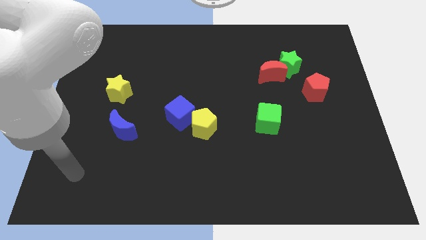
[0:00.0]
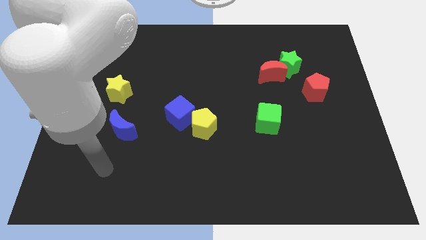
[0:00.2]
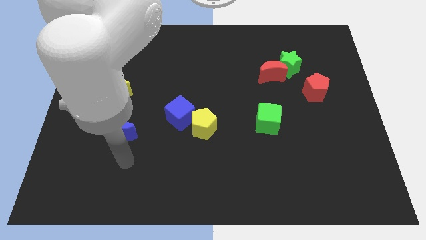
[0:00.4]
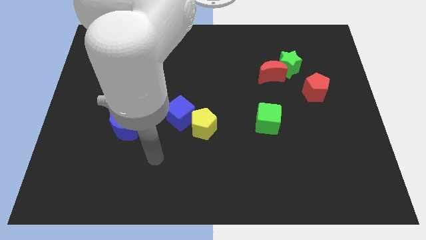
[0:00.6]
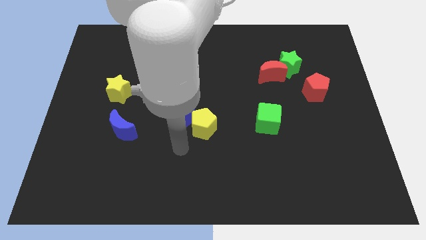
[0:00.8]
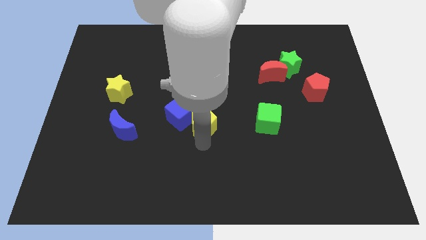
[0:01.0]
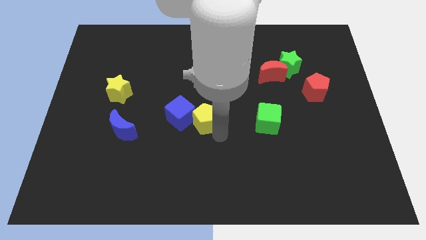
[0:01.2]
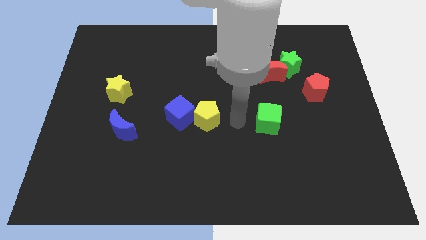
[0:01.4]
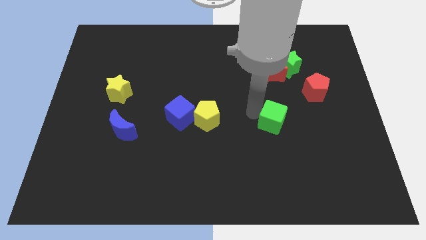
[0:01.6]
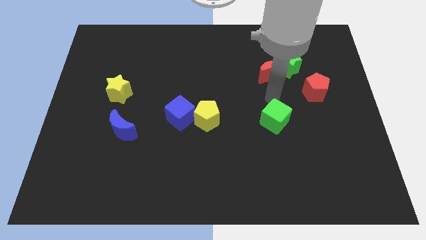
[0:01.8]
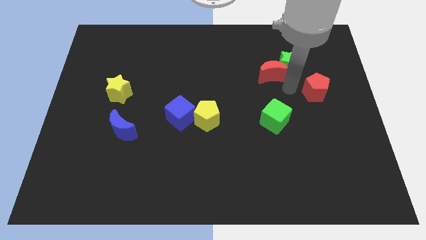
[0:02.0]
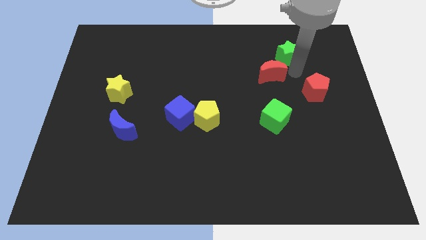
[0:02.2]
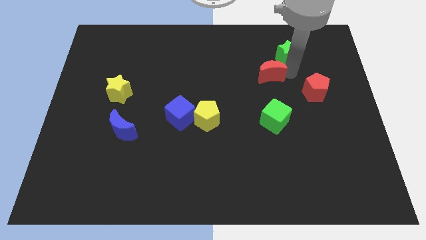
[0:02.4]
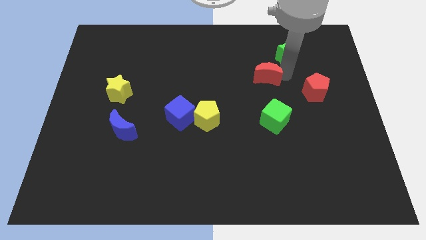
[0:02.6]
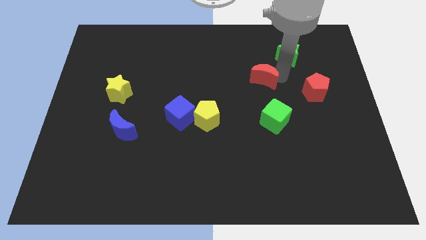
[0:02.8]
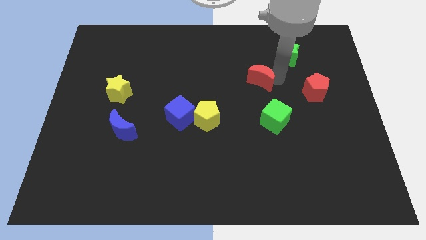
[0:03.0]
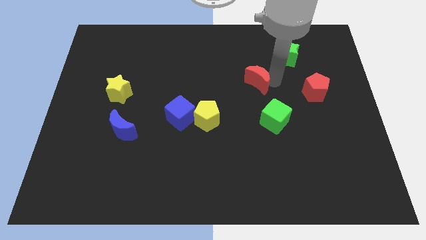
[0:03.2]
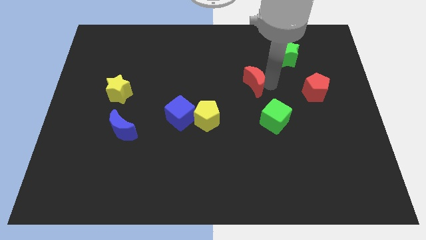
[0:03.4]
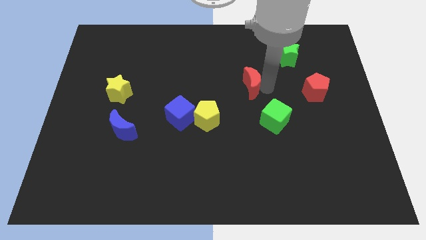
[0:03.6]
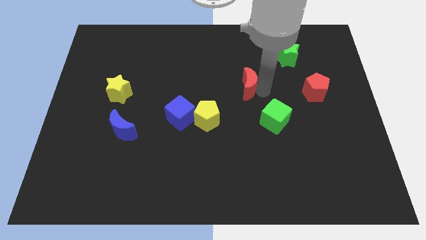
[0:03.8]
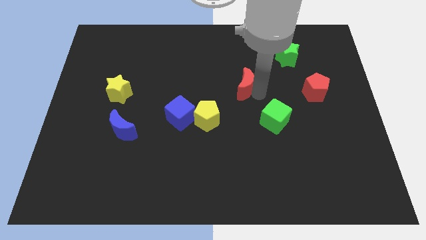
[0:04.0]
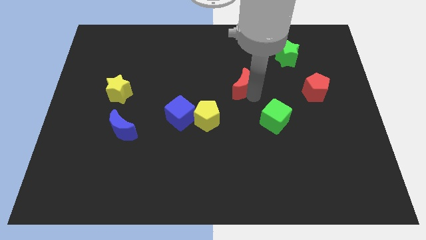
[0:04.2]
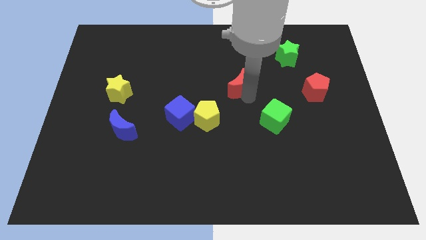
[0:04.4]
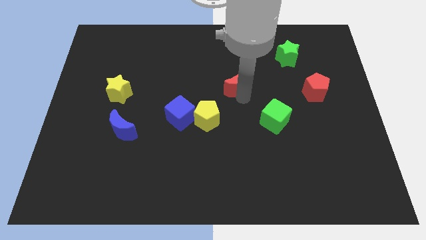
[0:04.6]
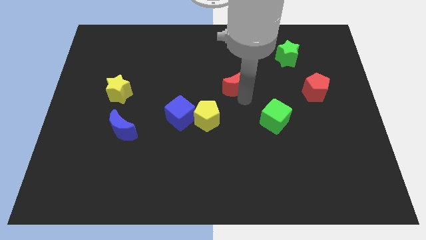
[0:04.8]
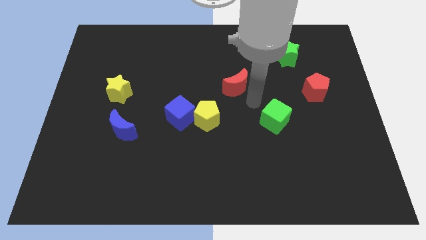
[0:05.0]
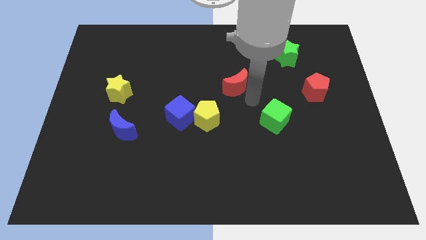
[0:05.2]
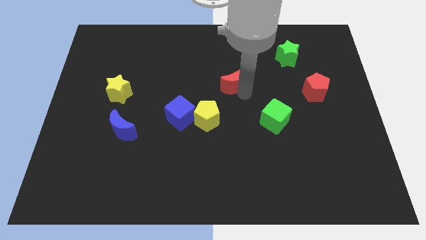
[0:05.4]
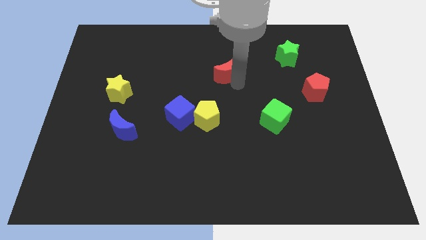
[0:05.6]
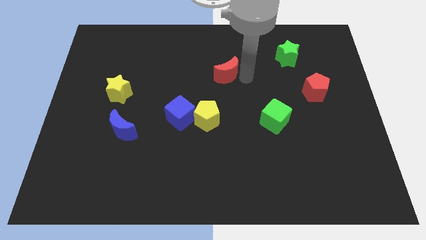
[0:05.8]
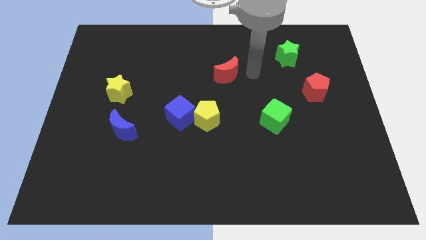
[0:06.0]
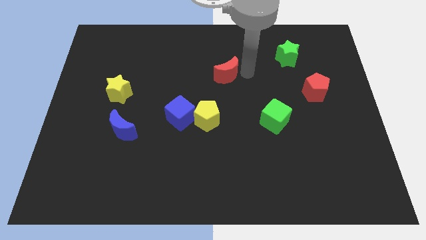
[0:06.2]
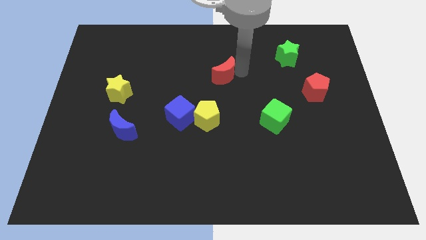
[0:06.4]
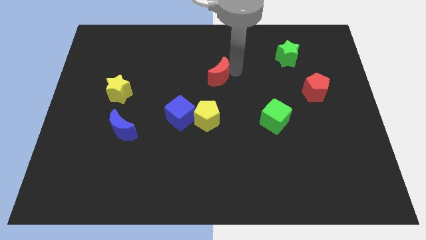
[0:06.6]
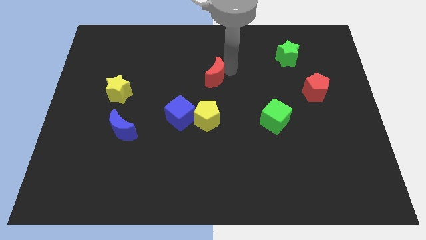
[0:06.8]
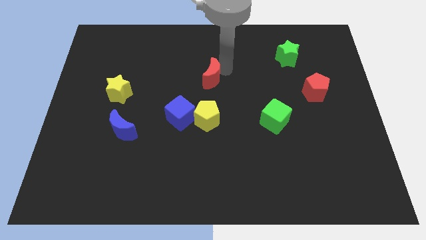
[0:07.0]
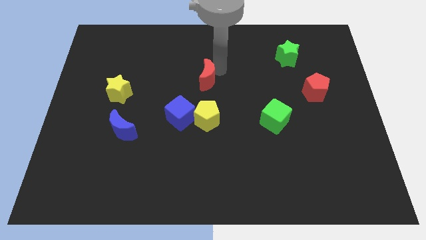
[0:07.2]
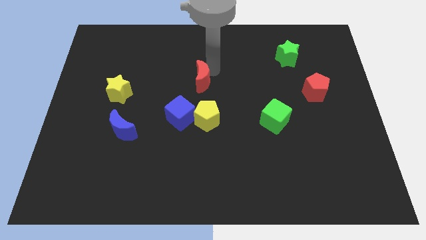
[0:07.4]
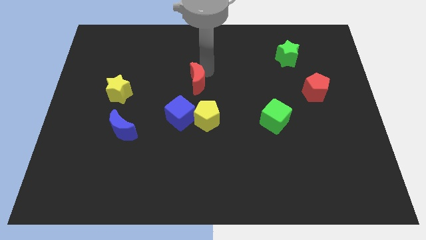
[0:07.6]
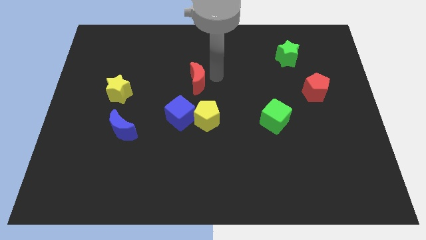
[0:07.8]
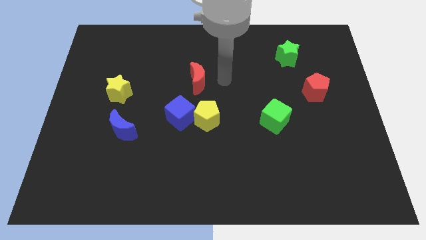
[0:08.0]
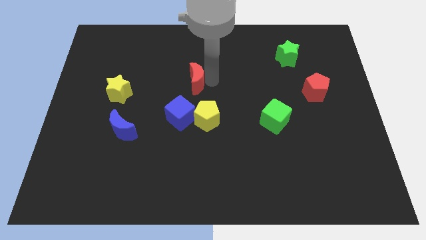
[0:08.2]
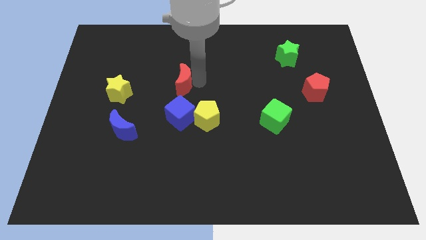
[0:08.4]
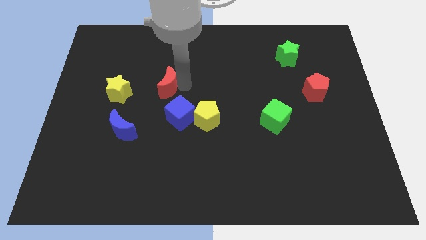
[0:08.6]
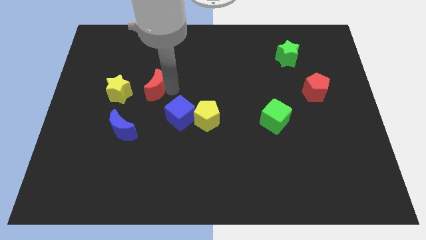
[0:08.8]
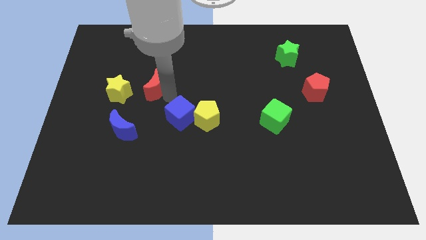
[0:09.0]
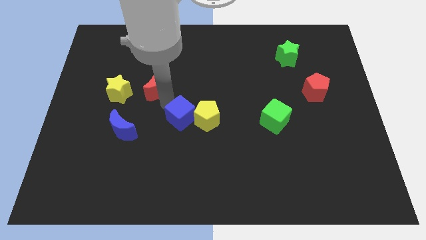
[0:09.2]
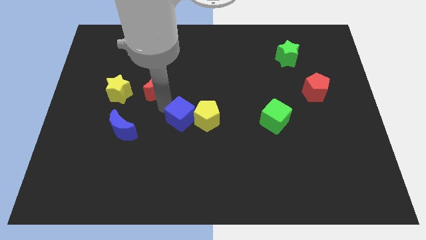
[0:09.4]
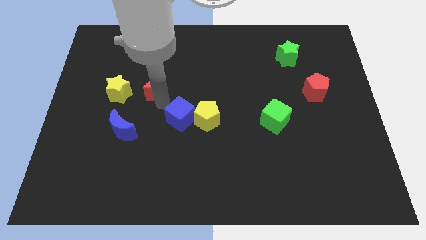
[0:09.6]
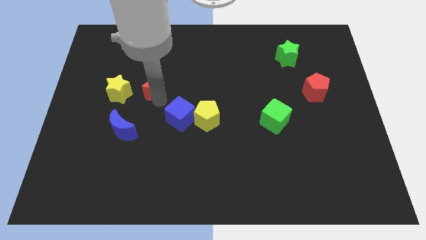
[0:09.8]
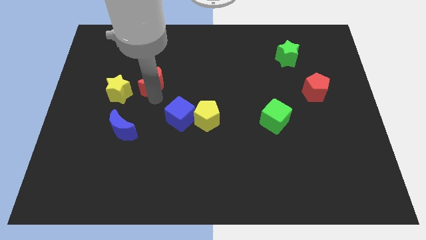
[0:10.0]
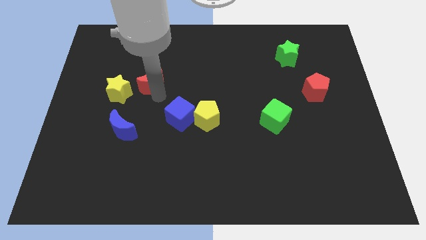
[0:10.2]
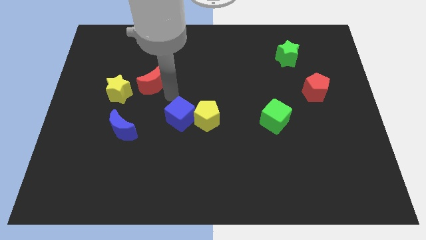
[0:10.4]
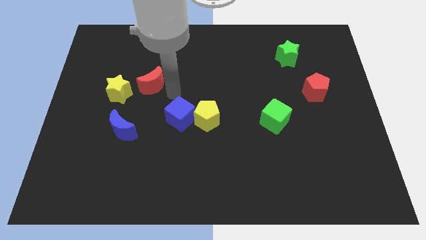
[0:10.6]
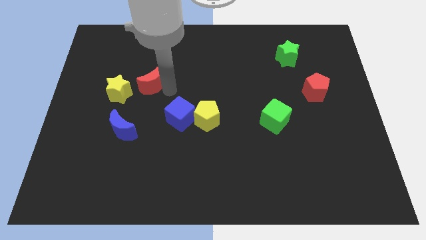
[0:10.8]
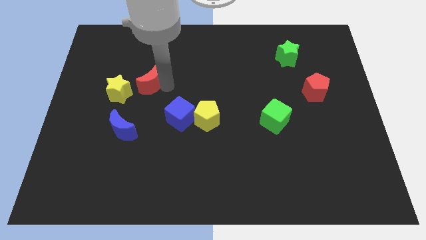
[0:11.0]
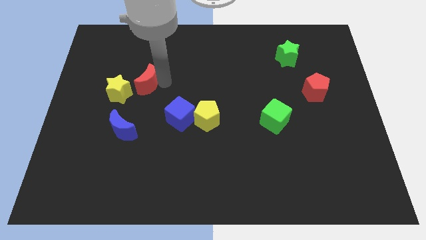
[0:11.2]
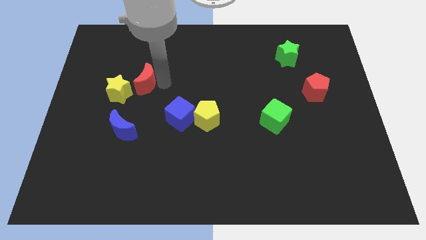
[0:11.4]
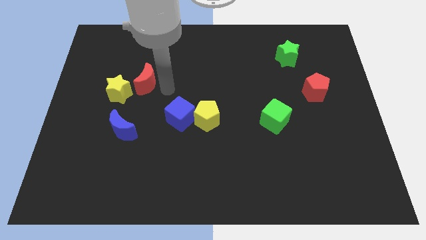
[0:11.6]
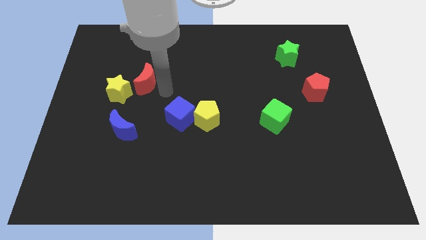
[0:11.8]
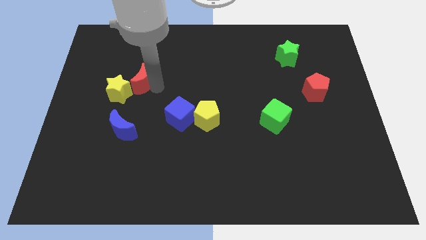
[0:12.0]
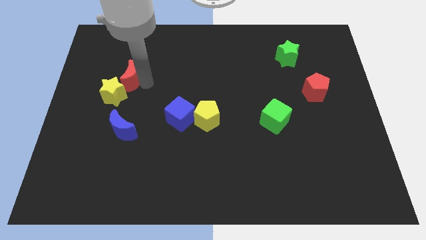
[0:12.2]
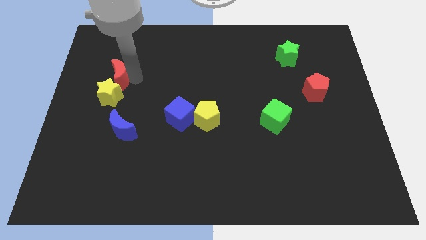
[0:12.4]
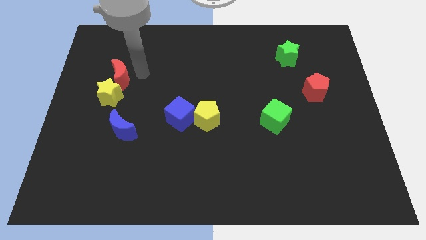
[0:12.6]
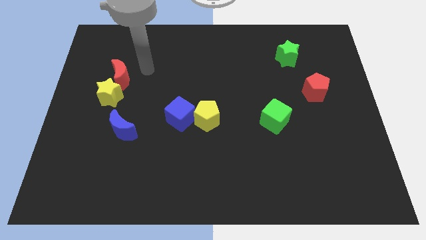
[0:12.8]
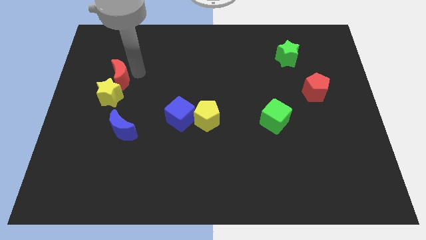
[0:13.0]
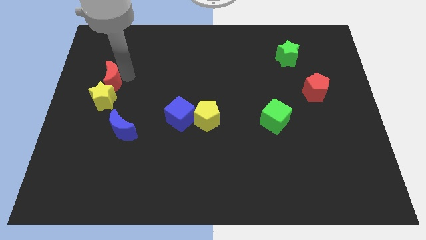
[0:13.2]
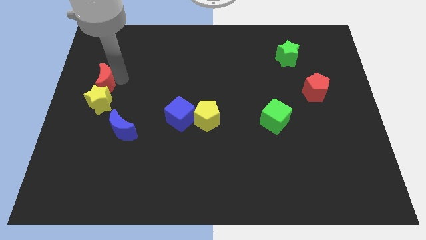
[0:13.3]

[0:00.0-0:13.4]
move the red moon to the left side
